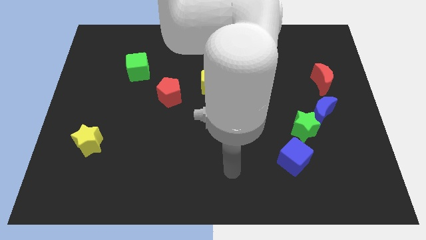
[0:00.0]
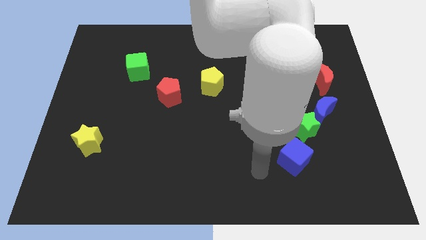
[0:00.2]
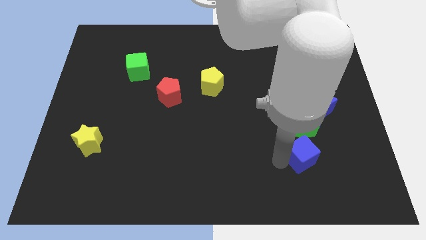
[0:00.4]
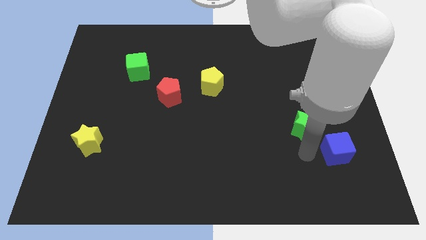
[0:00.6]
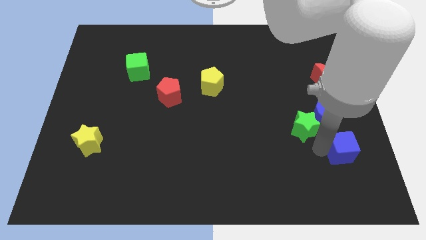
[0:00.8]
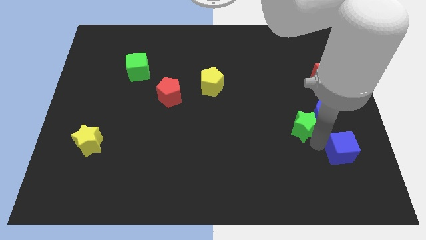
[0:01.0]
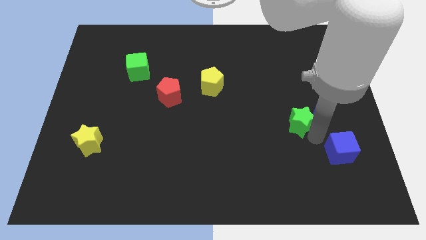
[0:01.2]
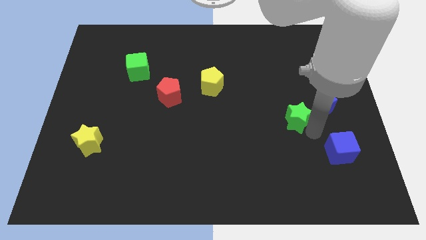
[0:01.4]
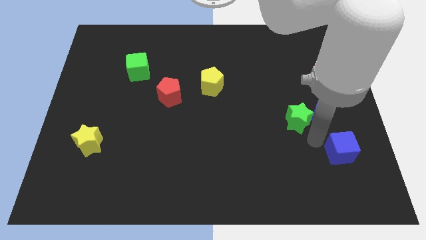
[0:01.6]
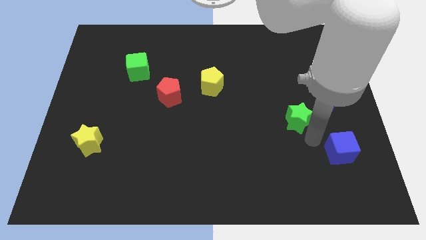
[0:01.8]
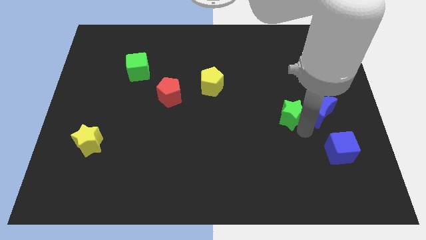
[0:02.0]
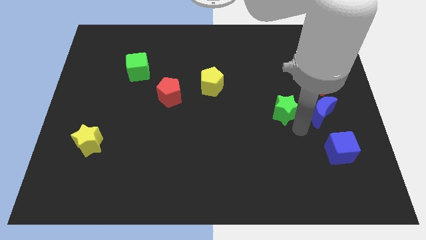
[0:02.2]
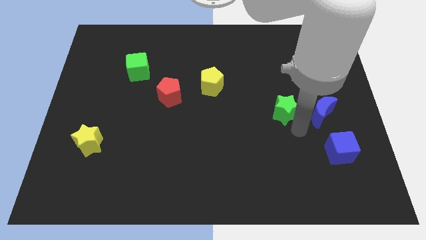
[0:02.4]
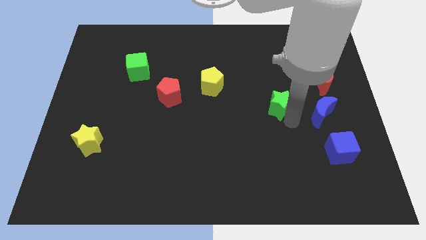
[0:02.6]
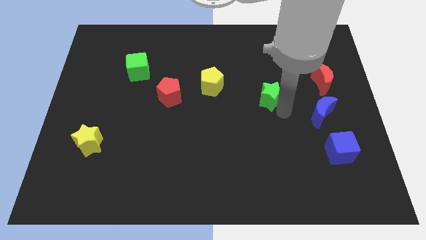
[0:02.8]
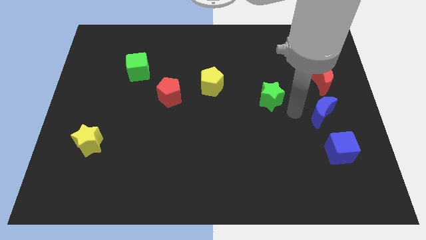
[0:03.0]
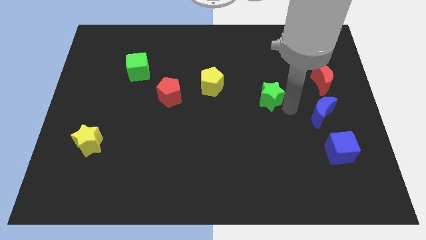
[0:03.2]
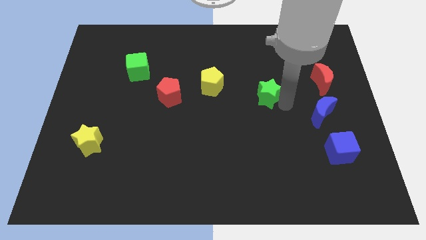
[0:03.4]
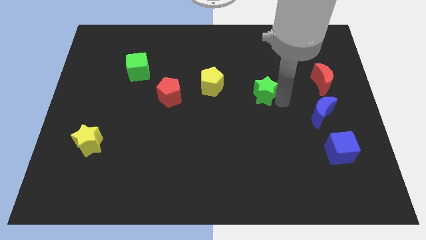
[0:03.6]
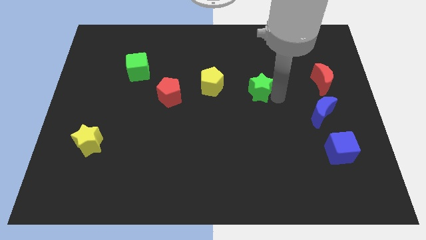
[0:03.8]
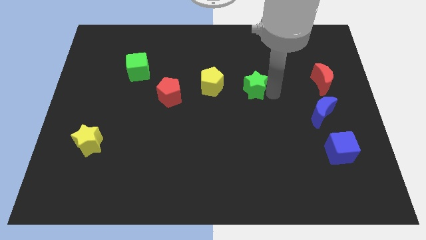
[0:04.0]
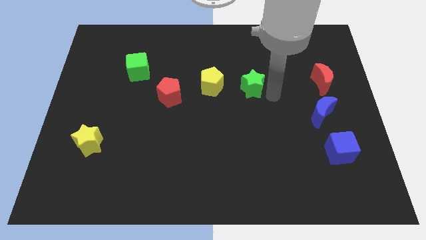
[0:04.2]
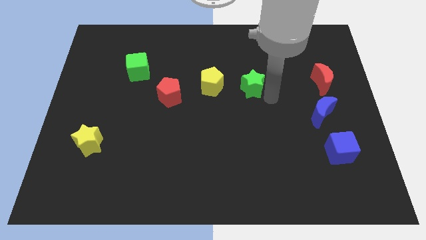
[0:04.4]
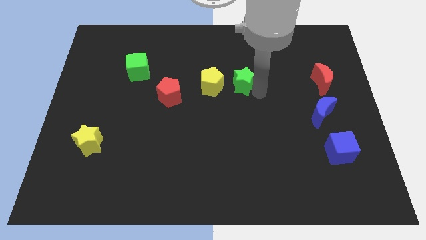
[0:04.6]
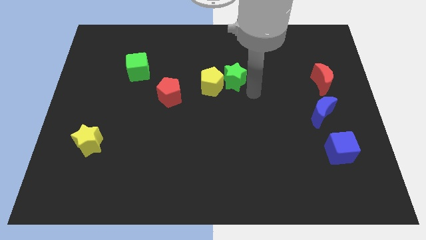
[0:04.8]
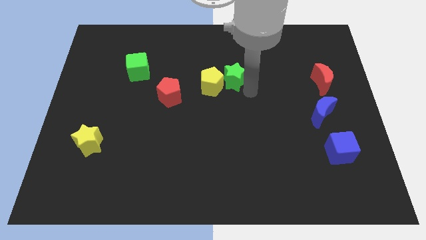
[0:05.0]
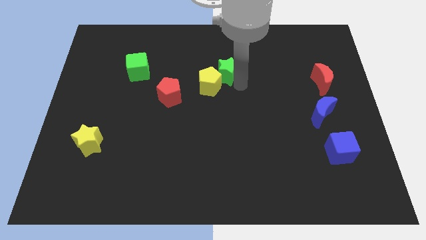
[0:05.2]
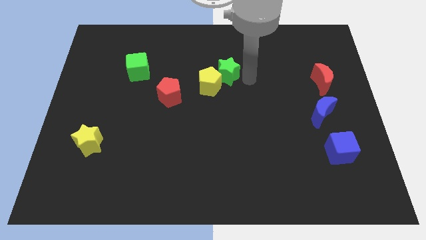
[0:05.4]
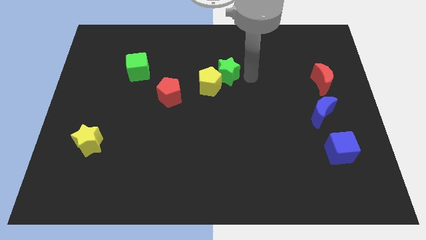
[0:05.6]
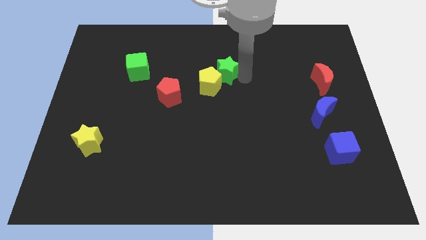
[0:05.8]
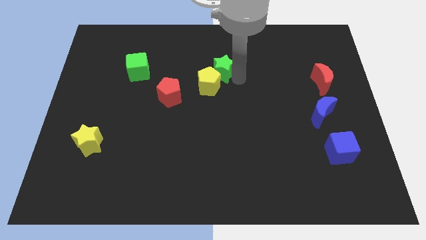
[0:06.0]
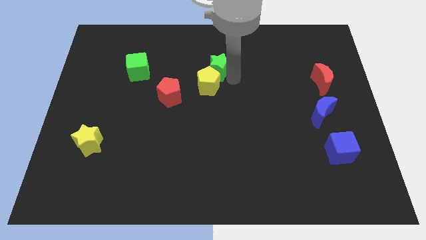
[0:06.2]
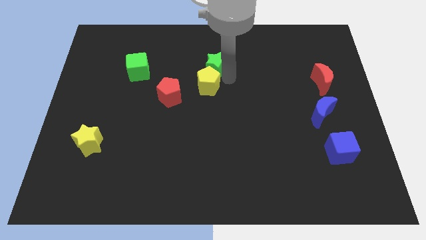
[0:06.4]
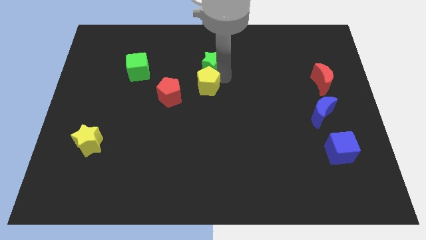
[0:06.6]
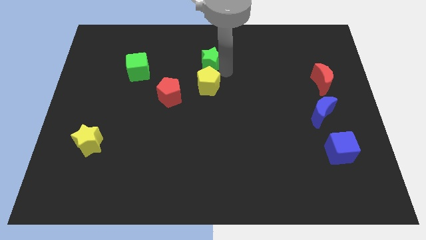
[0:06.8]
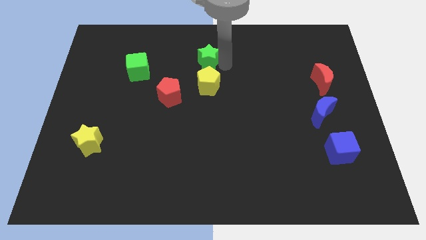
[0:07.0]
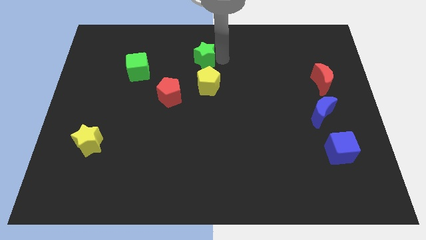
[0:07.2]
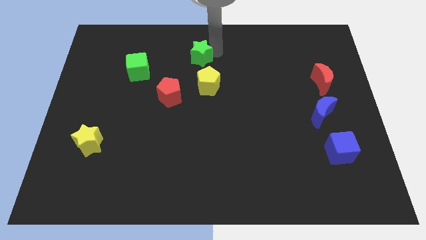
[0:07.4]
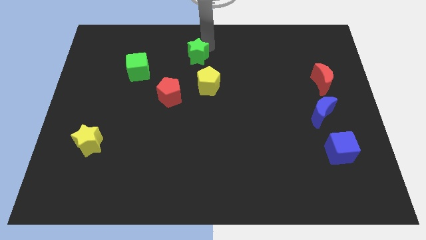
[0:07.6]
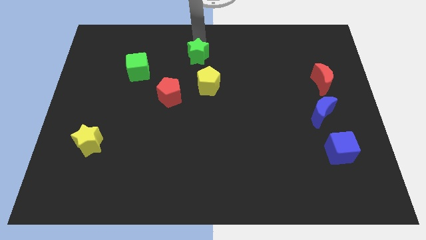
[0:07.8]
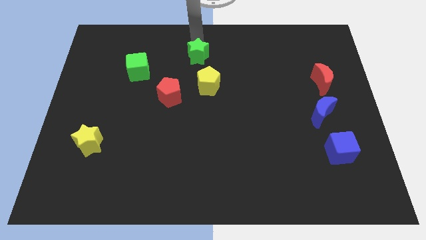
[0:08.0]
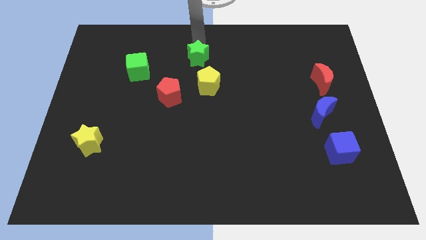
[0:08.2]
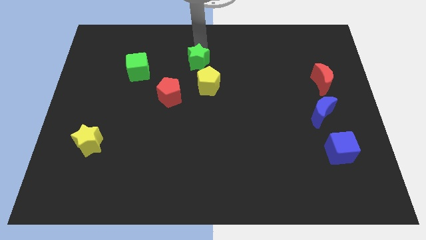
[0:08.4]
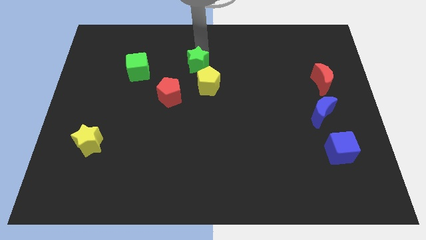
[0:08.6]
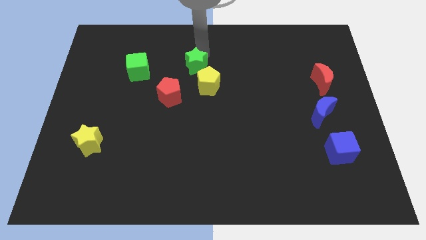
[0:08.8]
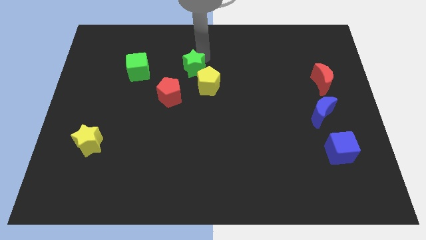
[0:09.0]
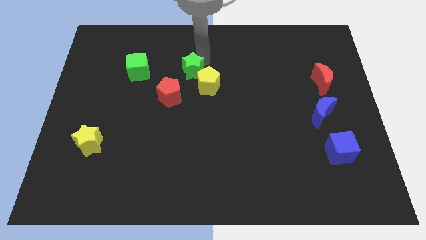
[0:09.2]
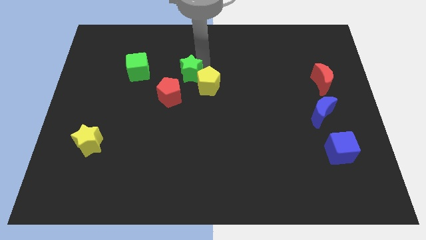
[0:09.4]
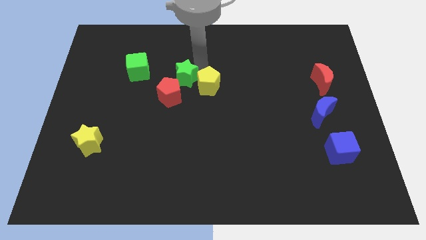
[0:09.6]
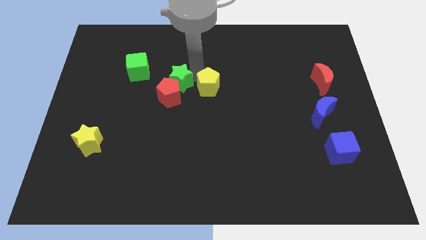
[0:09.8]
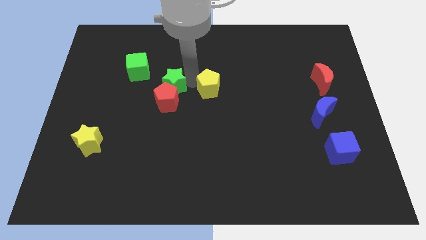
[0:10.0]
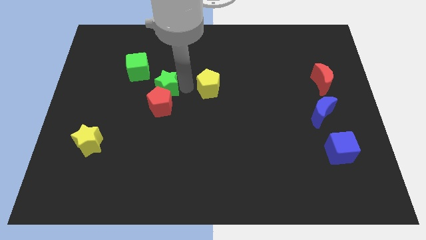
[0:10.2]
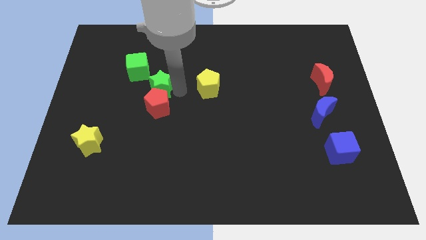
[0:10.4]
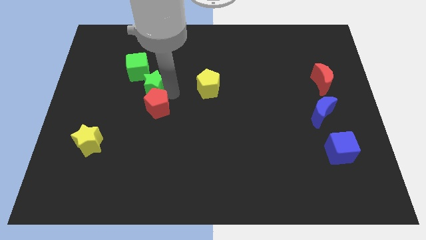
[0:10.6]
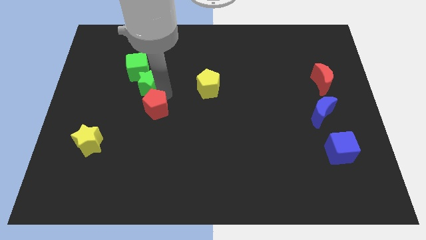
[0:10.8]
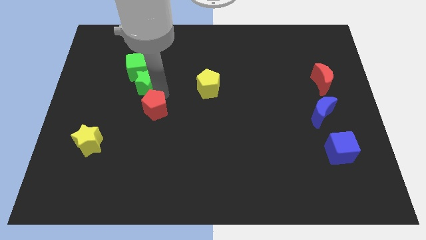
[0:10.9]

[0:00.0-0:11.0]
move the green star to the green cube
